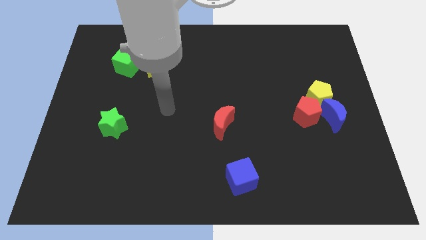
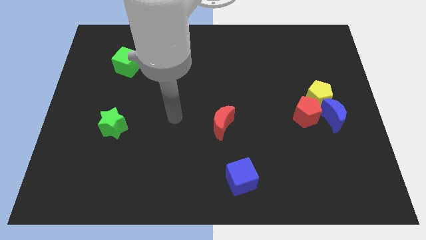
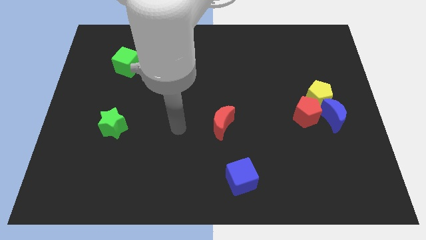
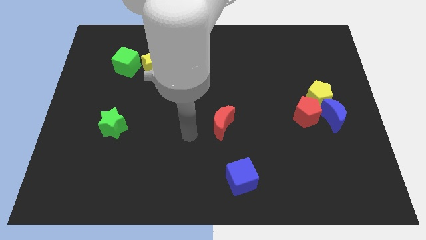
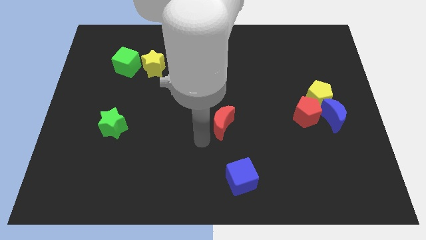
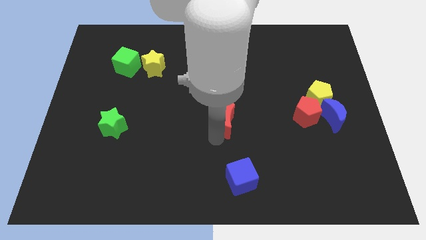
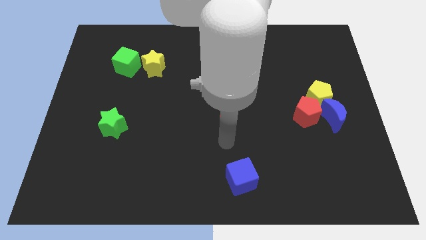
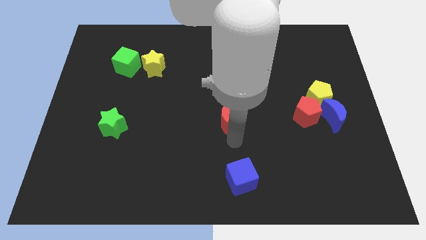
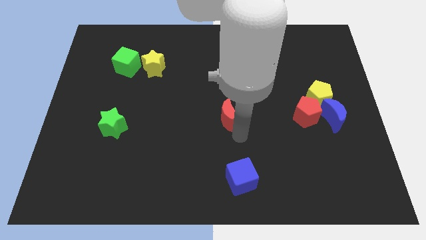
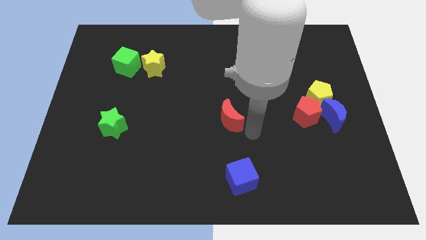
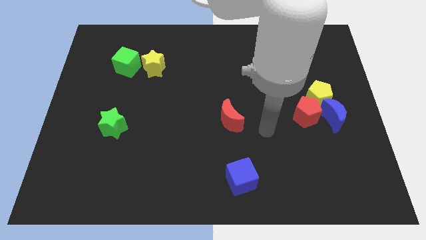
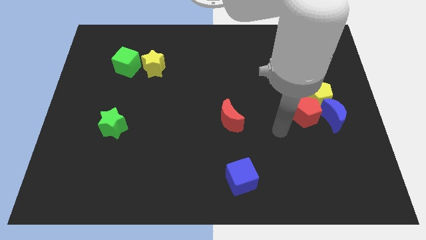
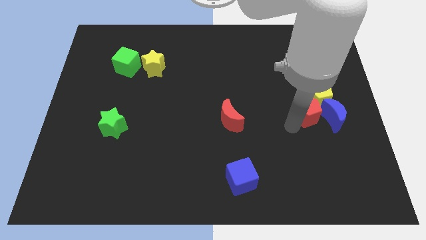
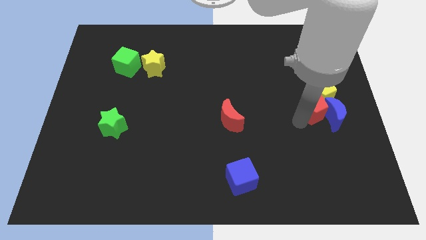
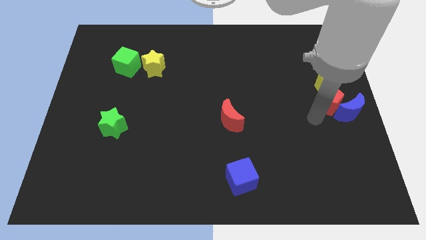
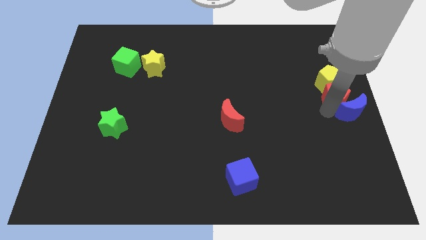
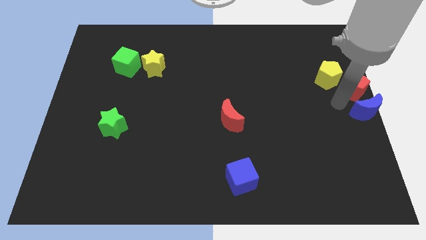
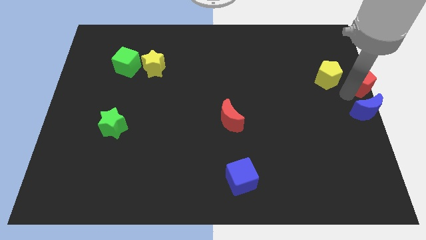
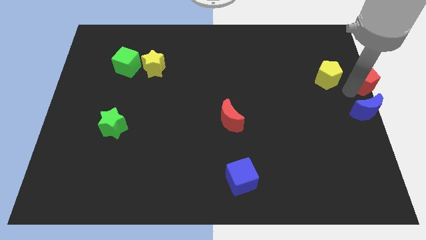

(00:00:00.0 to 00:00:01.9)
separate the yellow pentagon from the red pentagon and blue moon

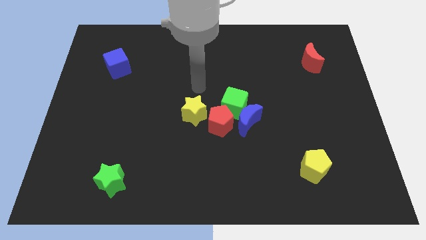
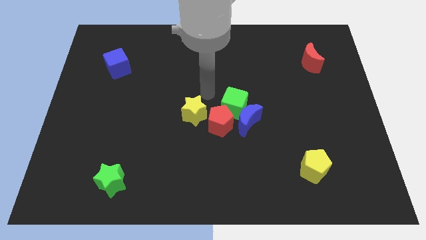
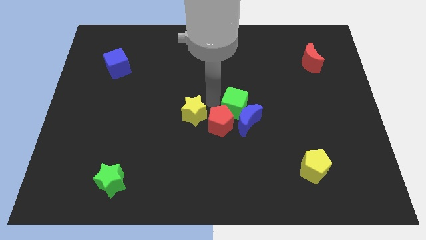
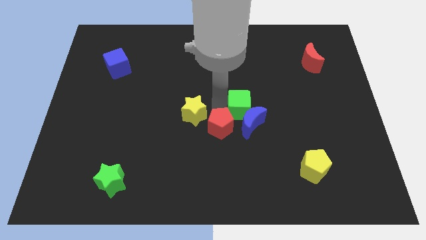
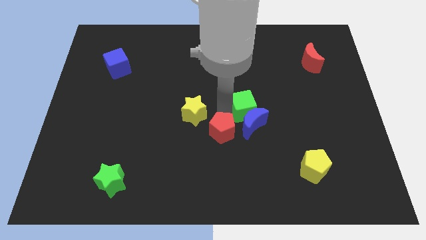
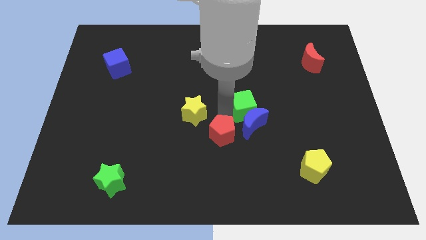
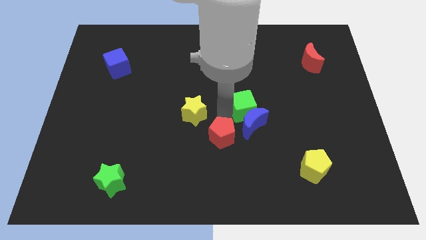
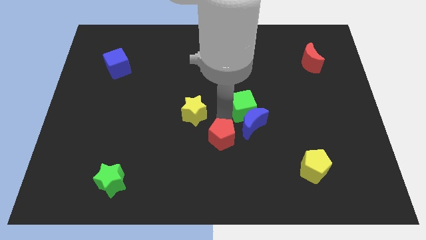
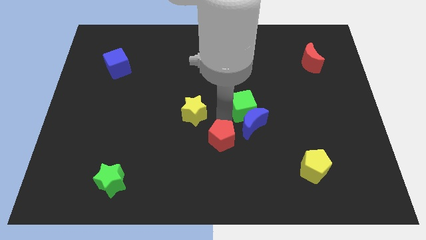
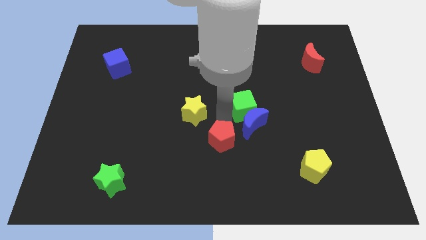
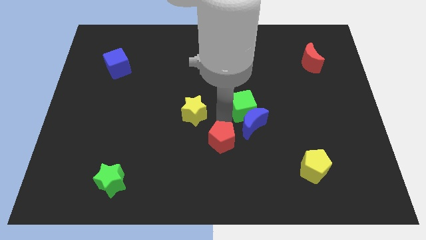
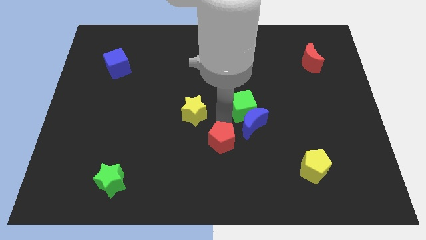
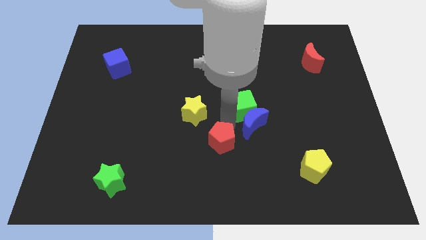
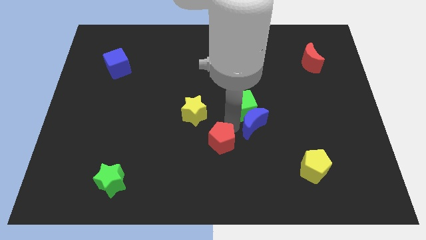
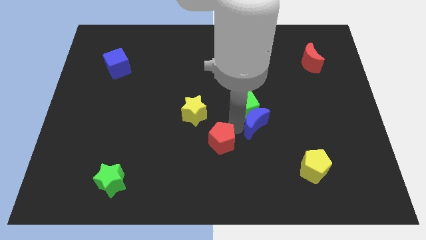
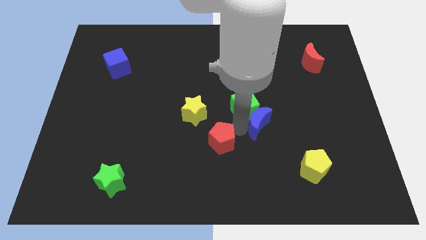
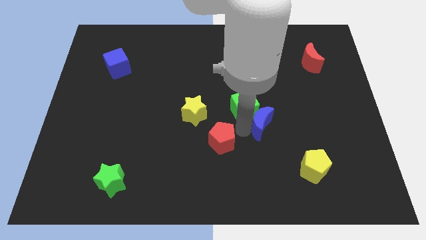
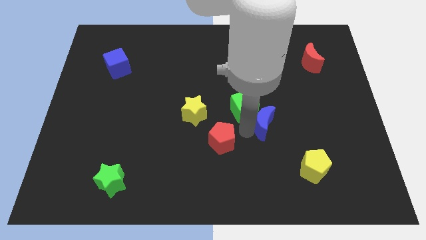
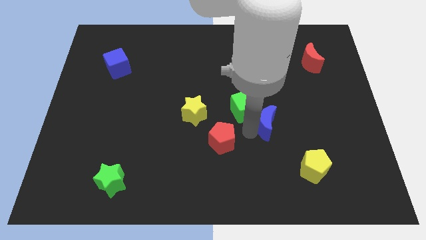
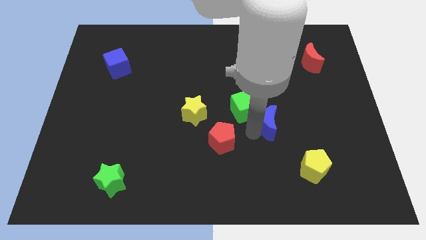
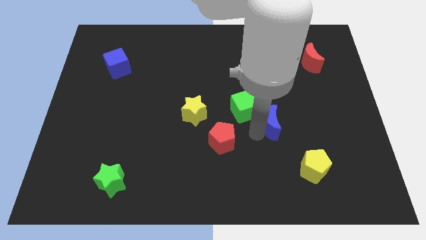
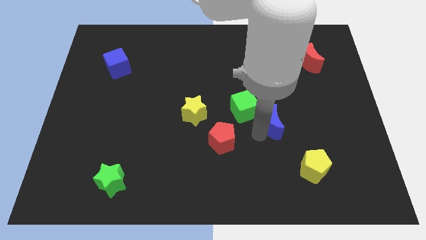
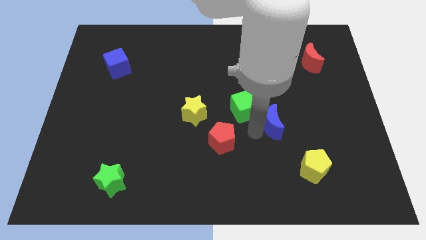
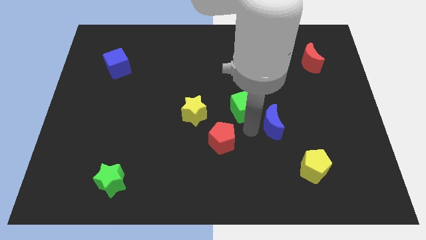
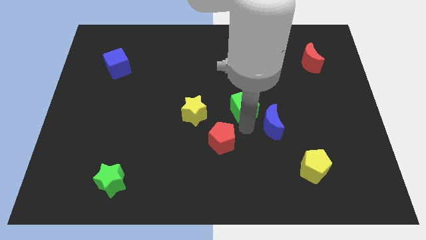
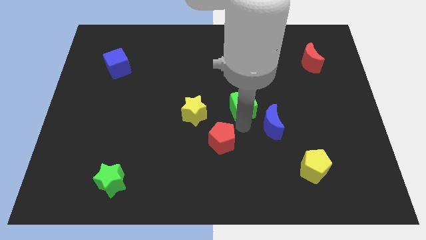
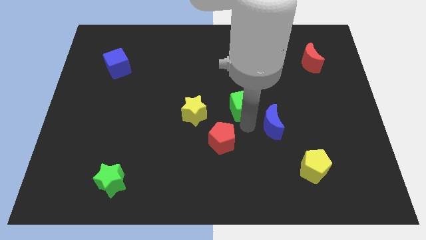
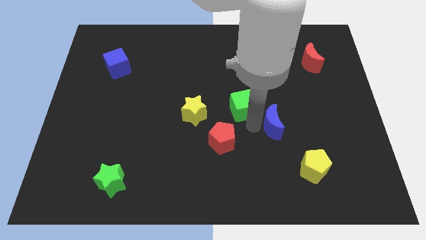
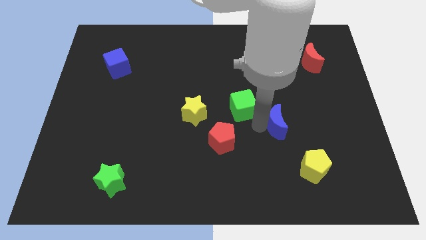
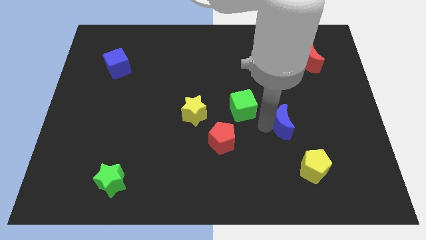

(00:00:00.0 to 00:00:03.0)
pull the blue moon apart from the green cube and red pentagon

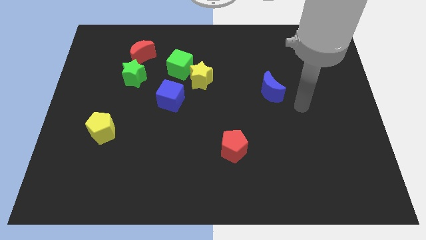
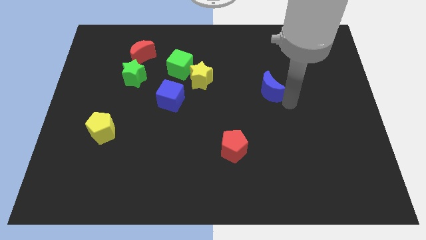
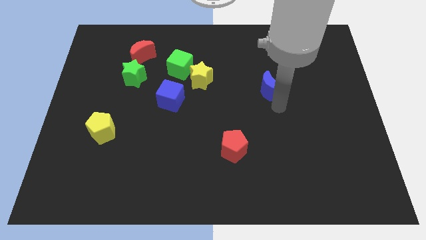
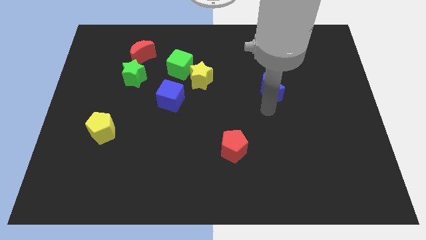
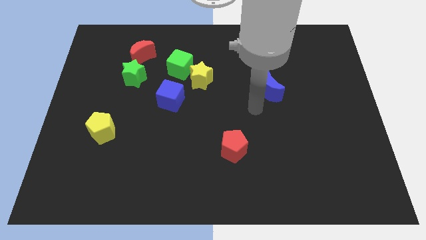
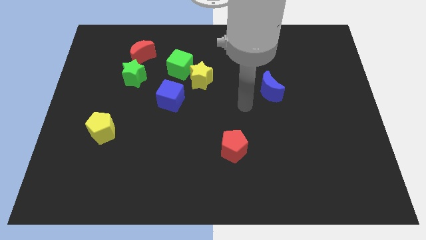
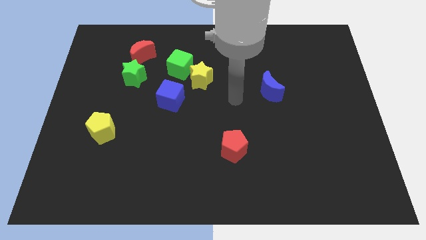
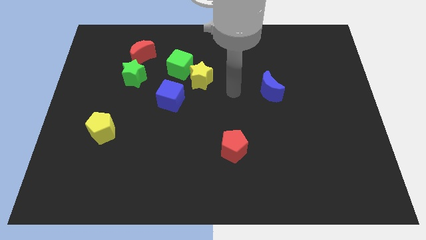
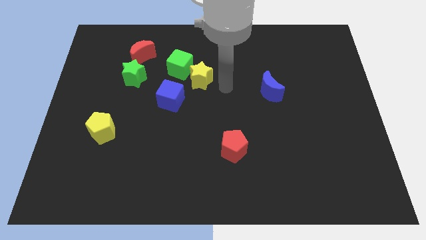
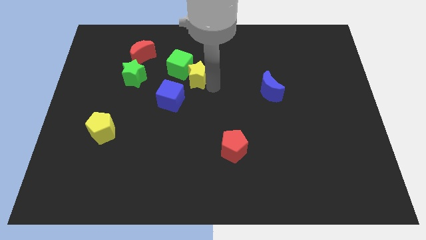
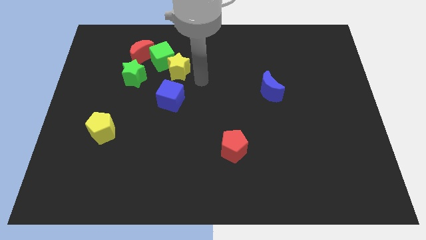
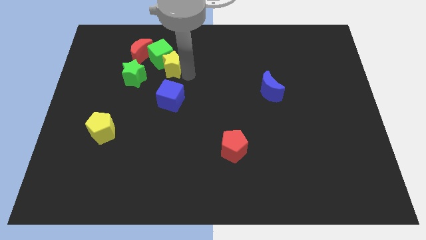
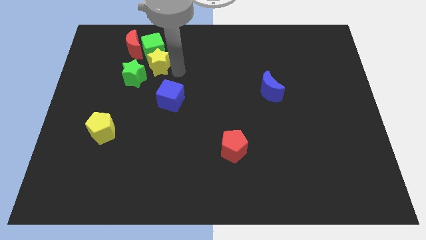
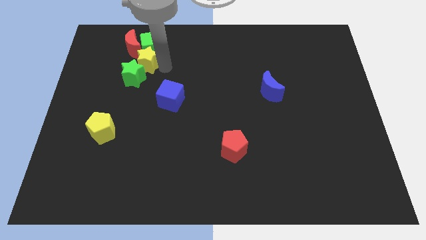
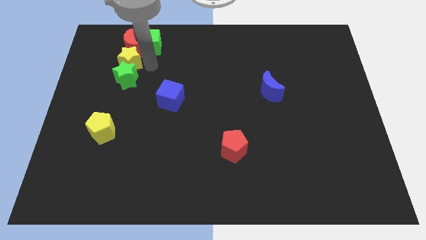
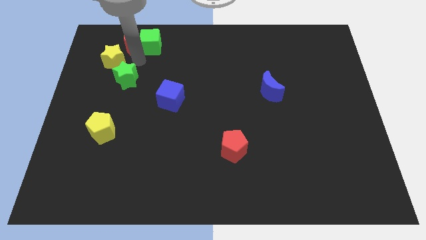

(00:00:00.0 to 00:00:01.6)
separate the green cube from the yellow star

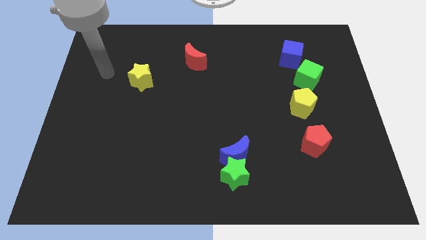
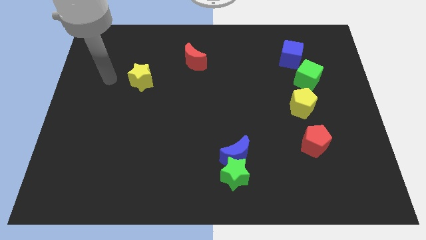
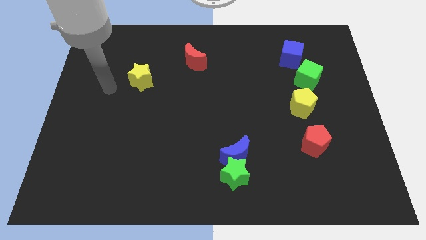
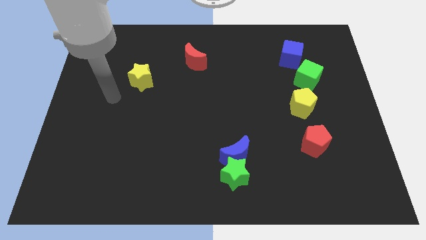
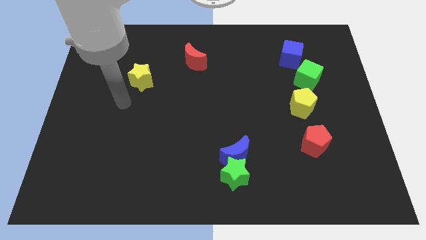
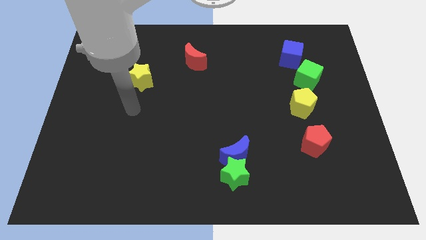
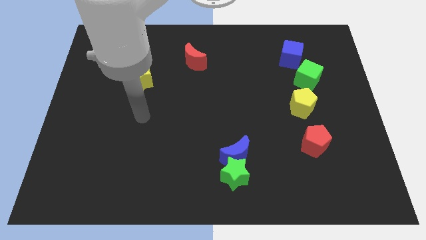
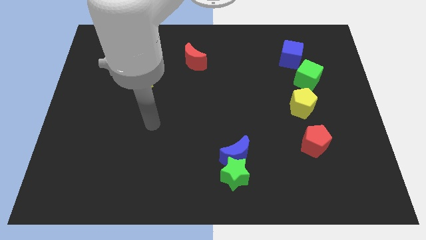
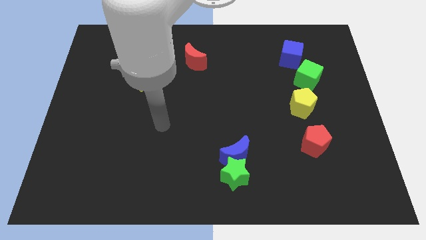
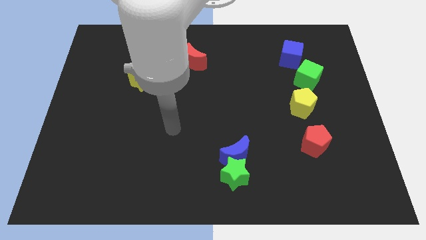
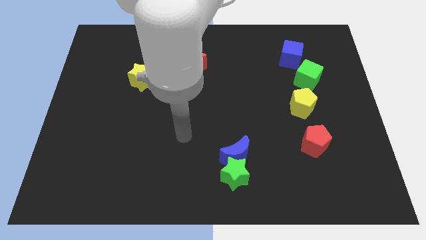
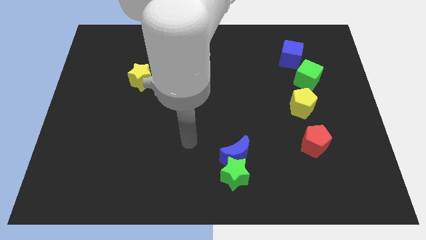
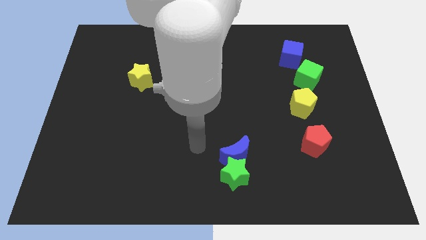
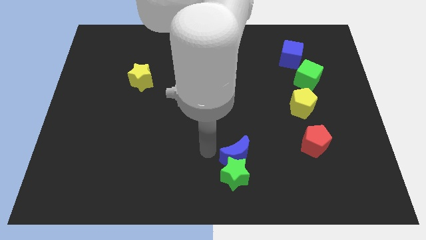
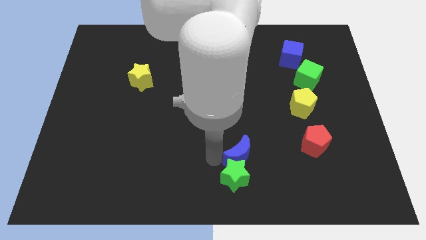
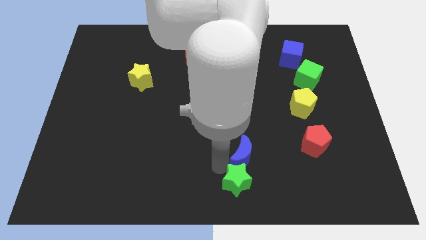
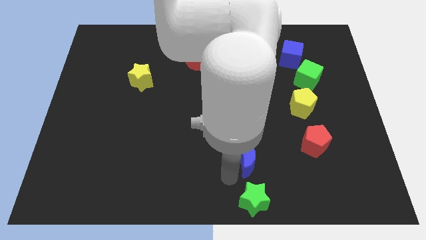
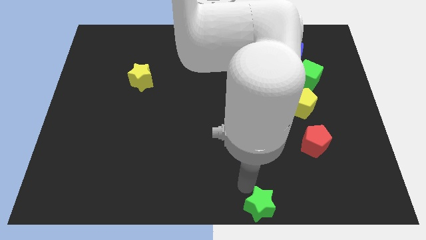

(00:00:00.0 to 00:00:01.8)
move the blue moon away from the green star

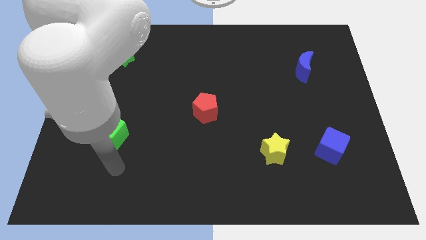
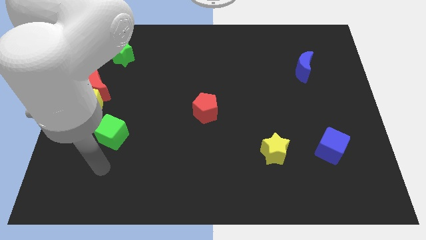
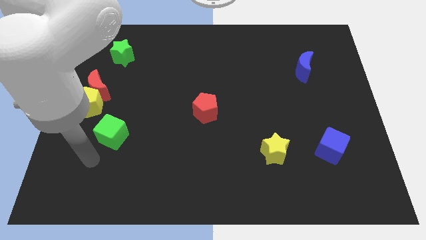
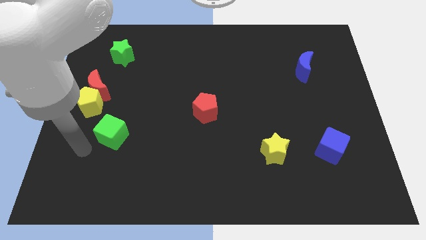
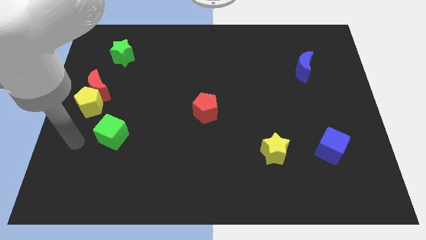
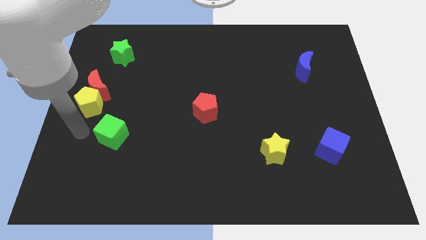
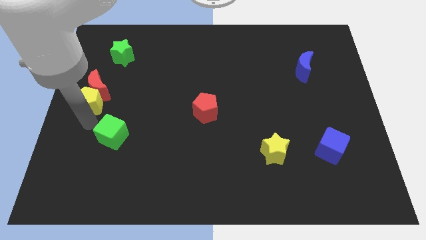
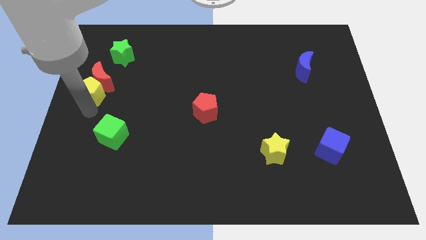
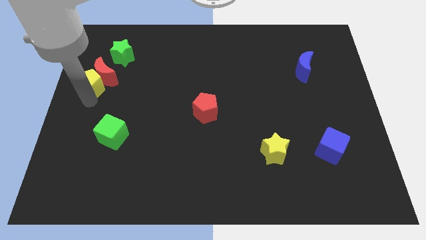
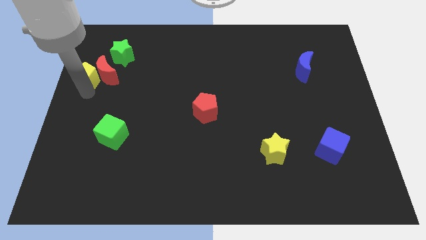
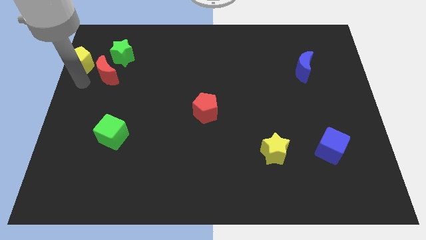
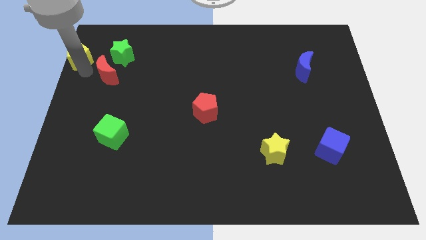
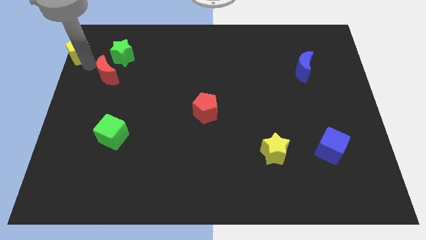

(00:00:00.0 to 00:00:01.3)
separate the red moon from the yellow pentagon
